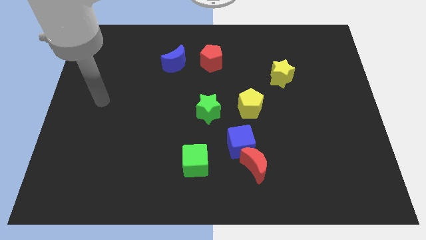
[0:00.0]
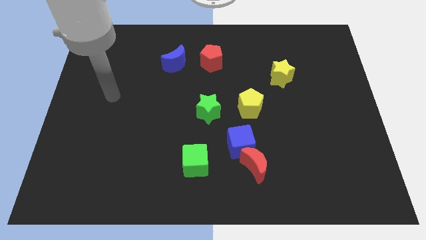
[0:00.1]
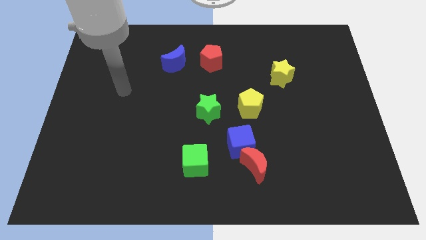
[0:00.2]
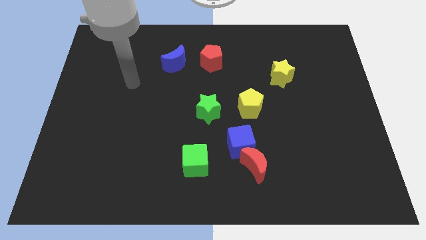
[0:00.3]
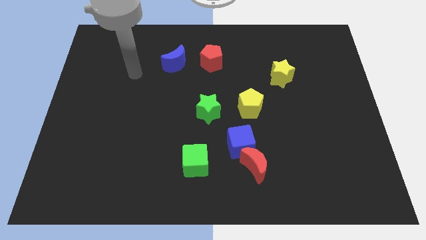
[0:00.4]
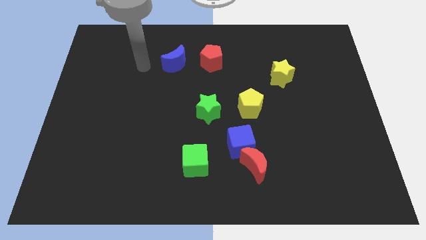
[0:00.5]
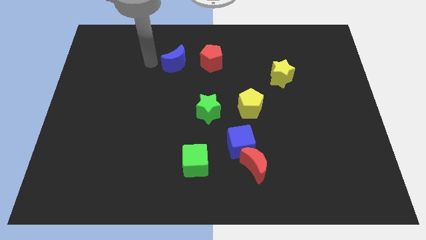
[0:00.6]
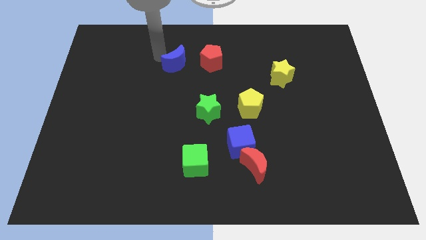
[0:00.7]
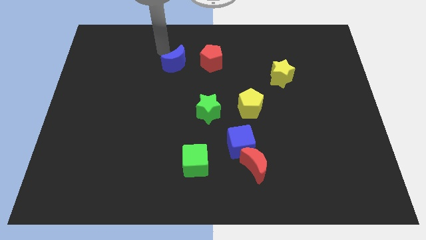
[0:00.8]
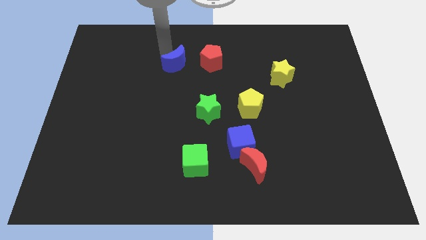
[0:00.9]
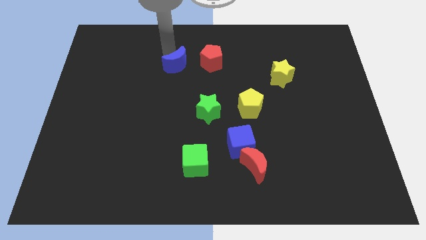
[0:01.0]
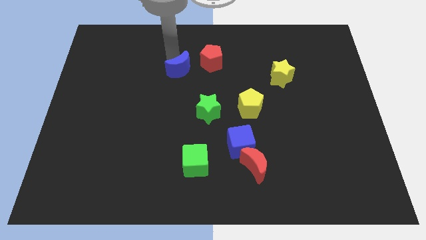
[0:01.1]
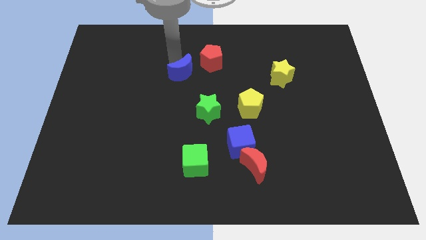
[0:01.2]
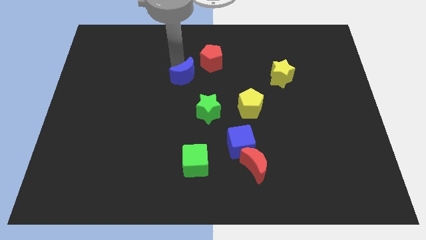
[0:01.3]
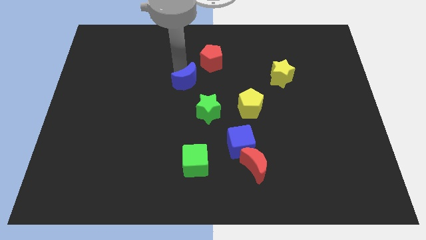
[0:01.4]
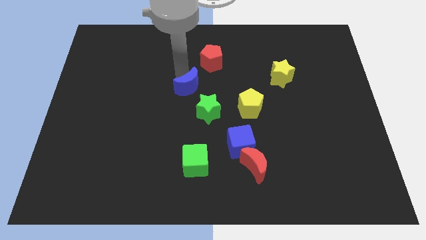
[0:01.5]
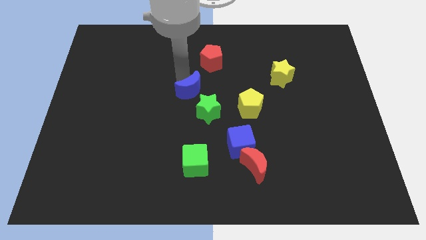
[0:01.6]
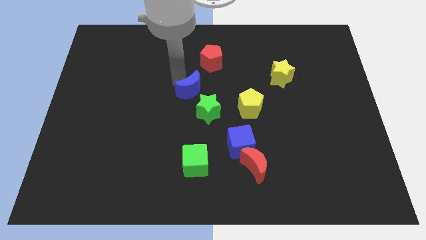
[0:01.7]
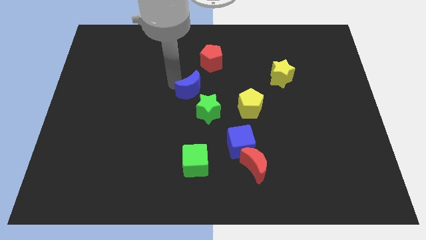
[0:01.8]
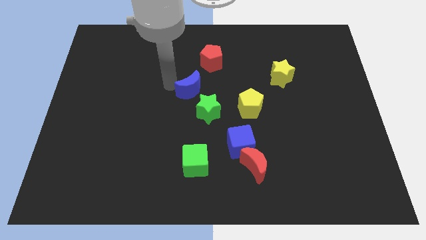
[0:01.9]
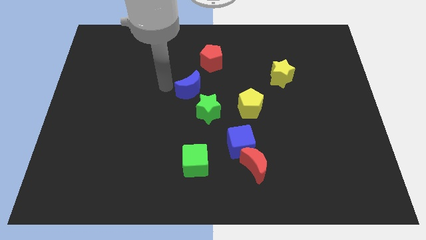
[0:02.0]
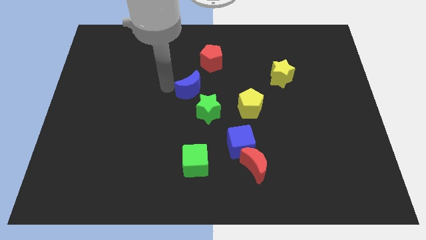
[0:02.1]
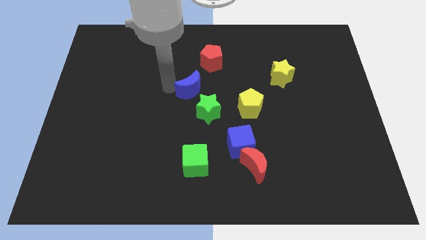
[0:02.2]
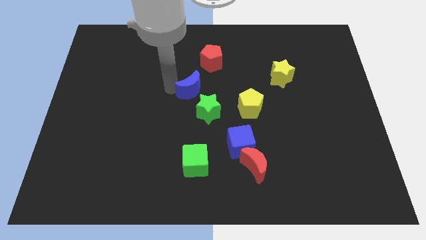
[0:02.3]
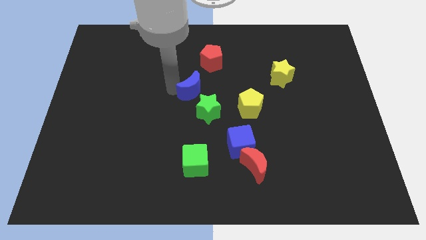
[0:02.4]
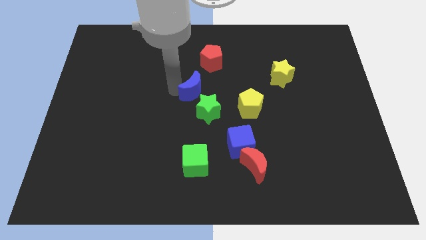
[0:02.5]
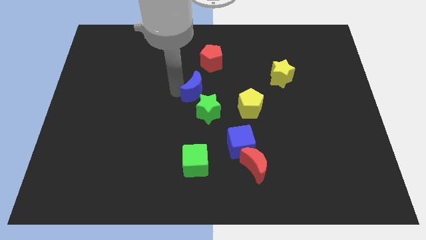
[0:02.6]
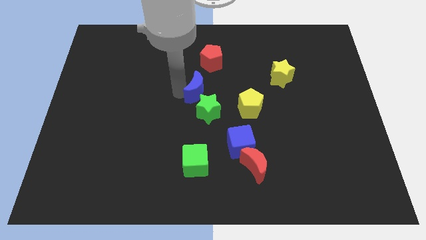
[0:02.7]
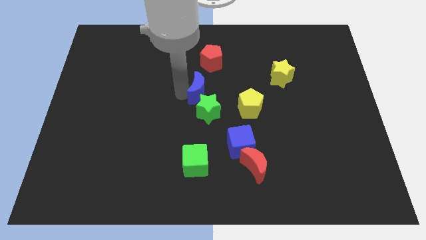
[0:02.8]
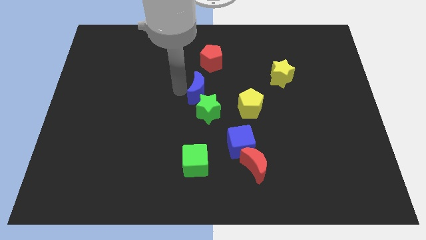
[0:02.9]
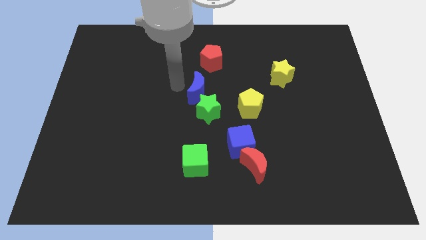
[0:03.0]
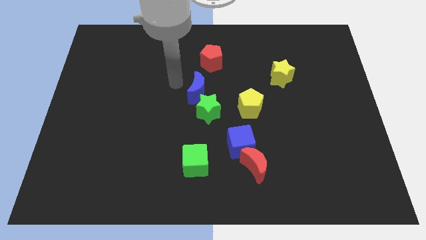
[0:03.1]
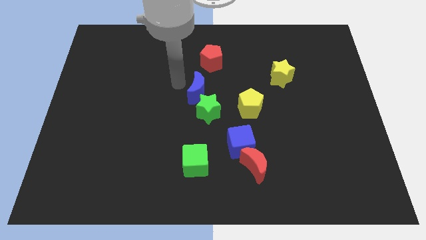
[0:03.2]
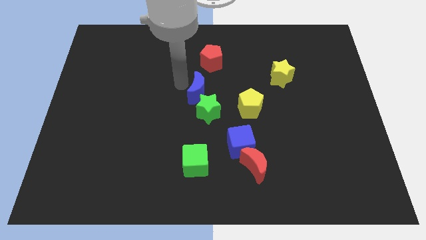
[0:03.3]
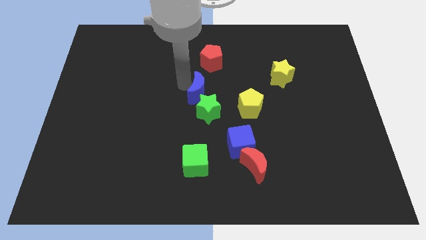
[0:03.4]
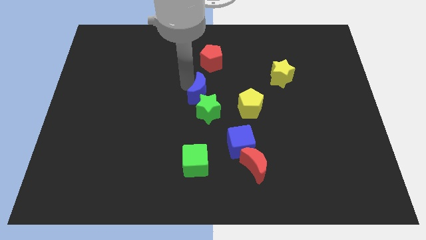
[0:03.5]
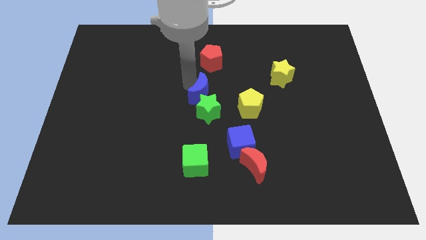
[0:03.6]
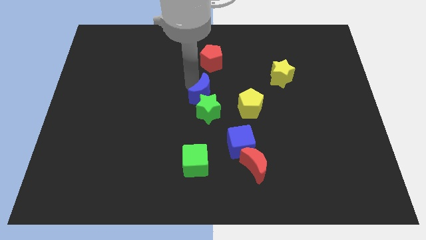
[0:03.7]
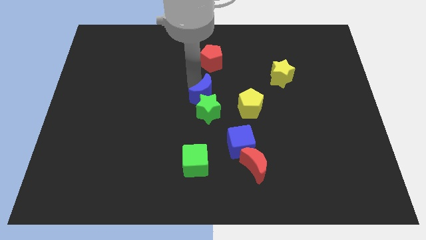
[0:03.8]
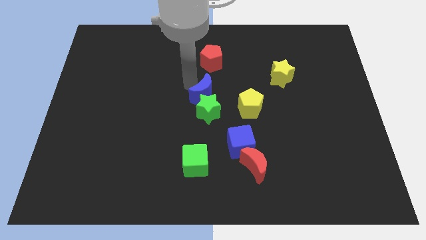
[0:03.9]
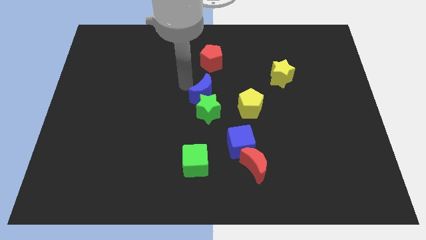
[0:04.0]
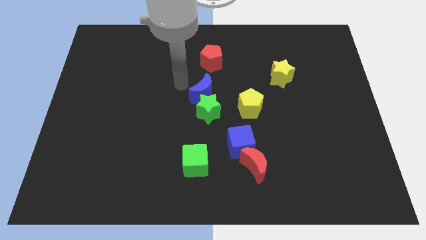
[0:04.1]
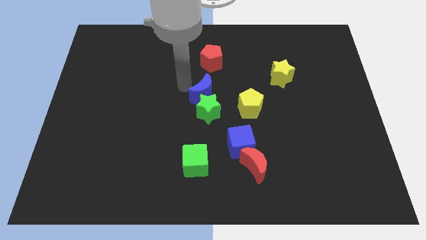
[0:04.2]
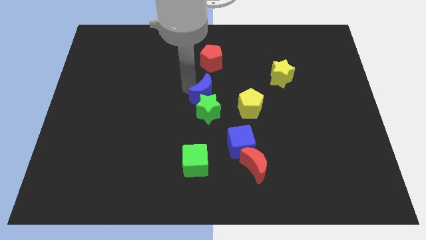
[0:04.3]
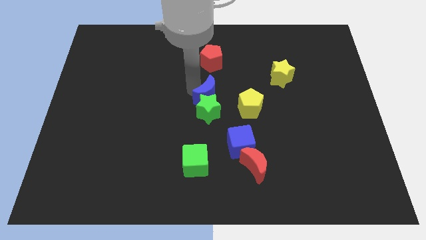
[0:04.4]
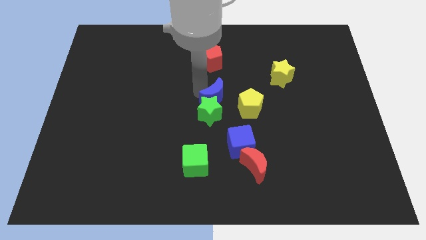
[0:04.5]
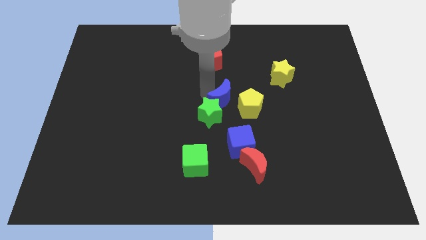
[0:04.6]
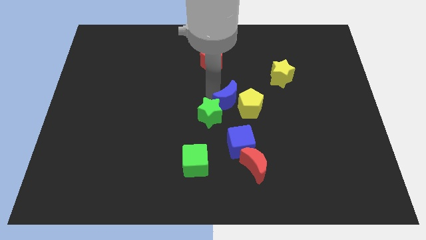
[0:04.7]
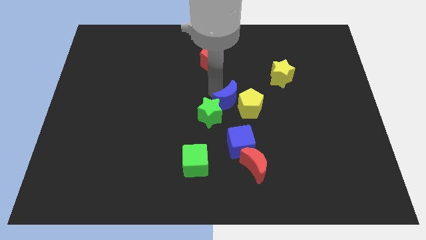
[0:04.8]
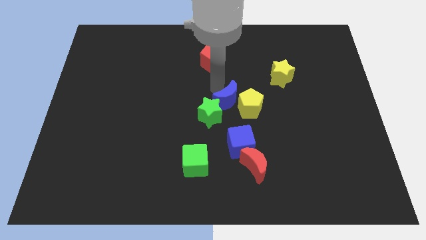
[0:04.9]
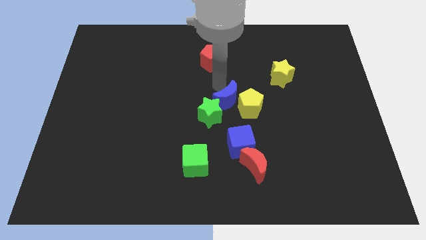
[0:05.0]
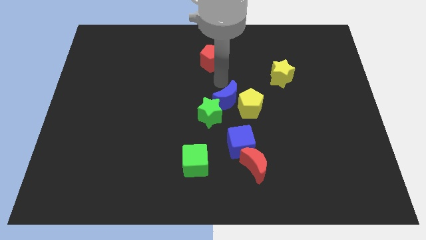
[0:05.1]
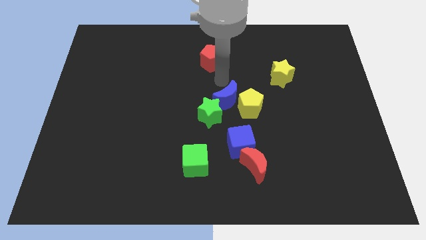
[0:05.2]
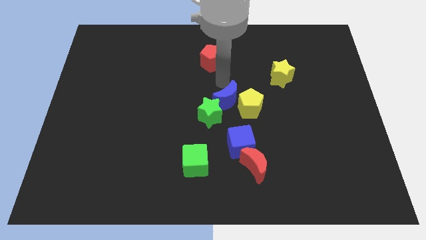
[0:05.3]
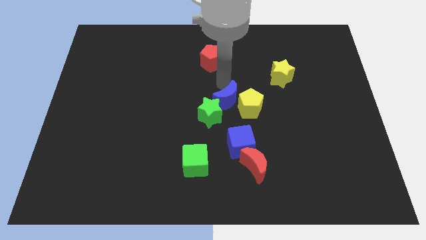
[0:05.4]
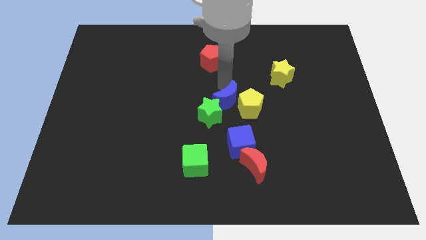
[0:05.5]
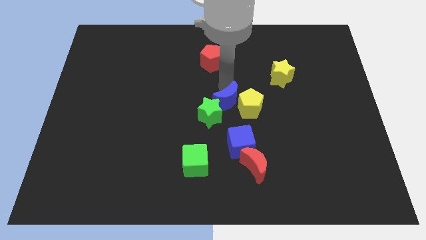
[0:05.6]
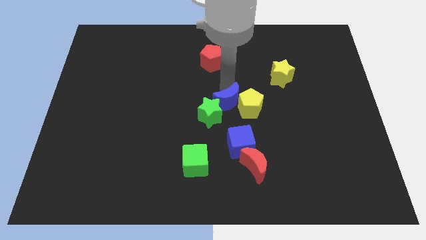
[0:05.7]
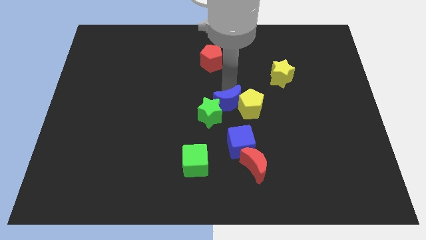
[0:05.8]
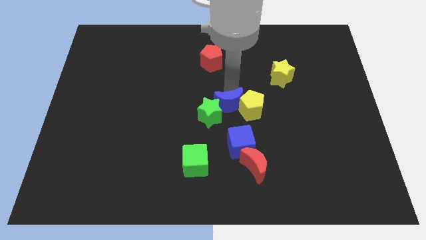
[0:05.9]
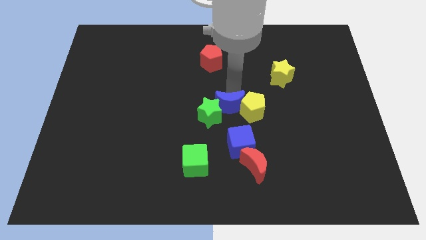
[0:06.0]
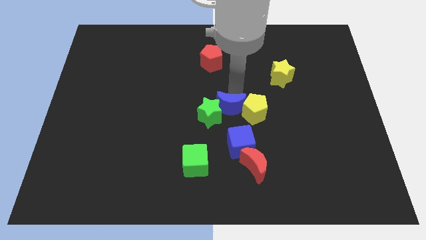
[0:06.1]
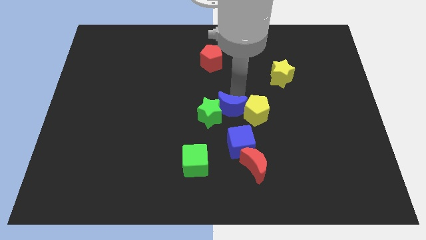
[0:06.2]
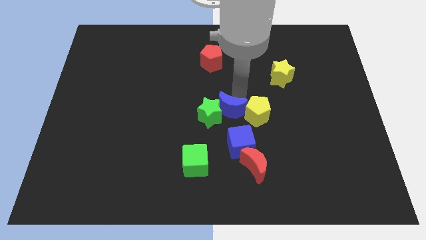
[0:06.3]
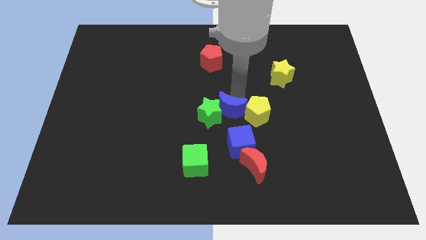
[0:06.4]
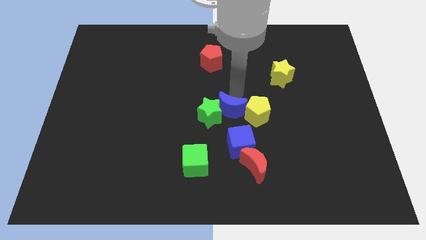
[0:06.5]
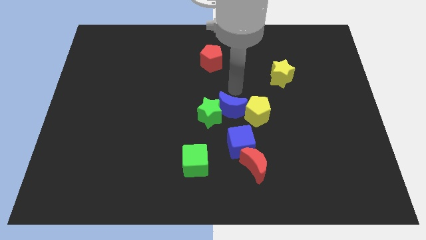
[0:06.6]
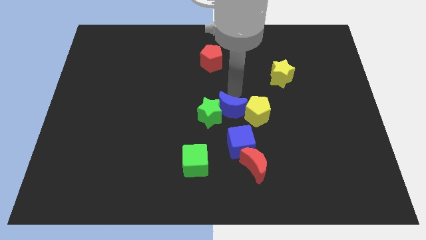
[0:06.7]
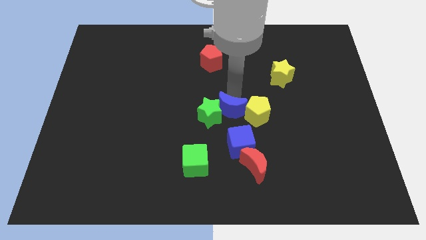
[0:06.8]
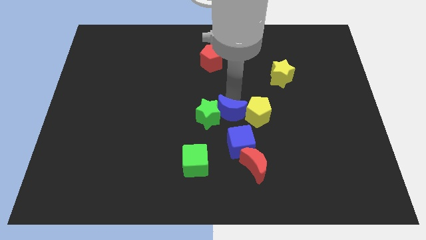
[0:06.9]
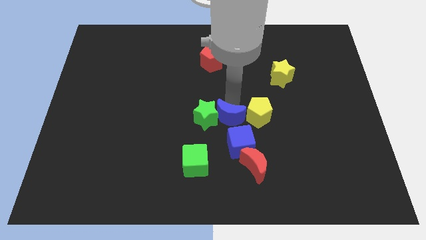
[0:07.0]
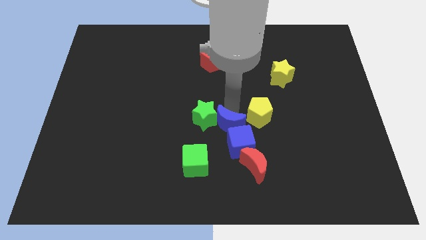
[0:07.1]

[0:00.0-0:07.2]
move the blue moon to the top right of the green cube
